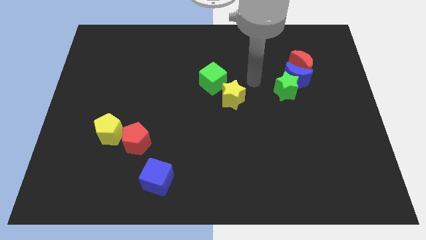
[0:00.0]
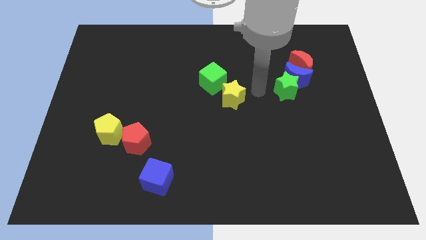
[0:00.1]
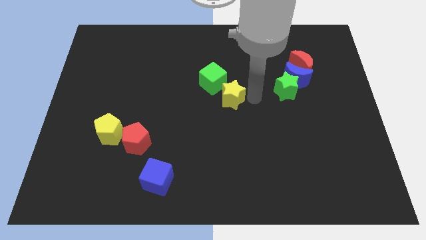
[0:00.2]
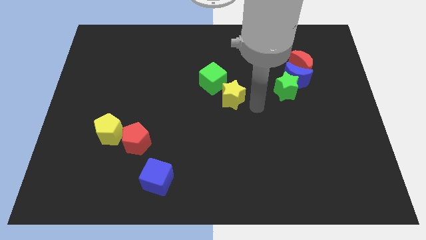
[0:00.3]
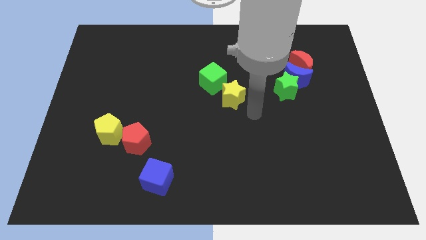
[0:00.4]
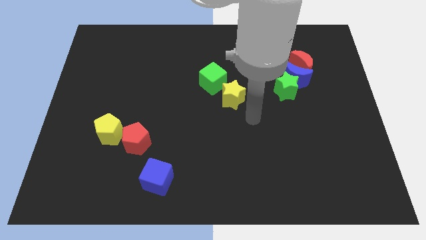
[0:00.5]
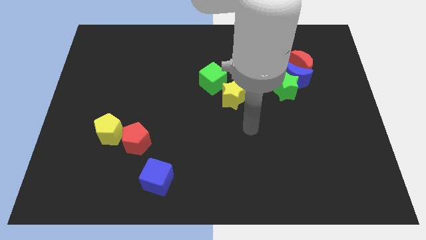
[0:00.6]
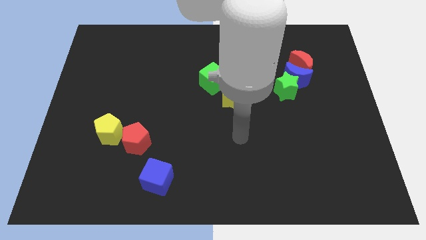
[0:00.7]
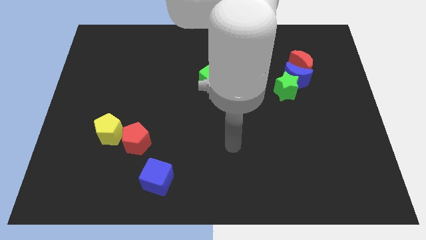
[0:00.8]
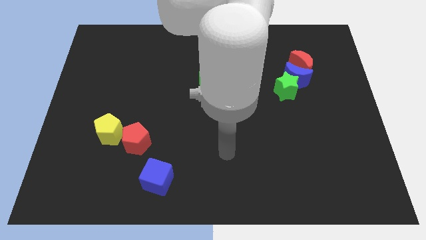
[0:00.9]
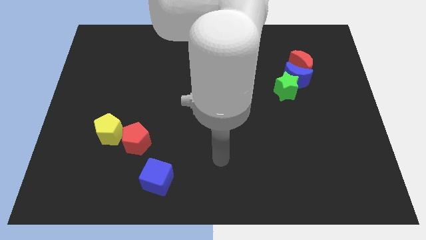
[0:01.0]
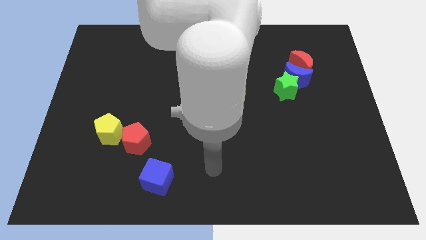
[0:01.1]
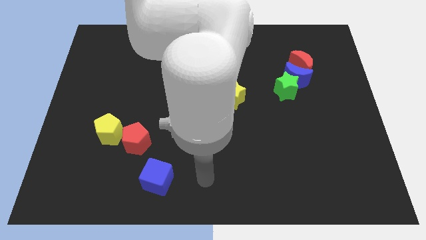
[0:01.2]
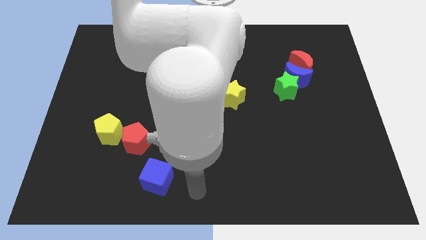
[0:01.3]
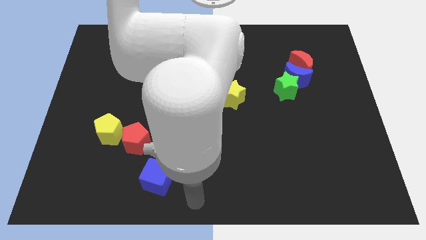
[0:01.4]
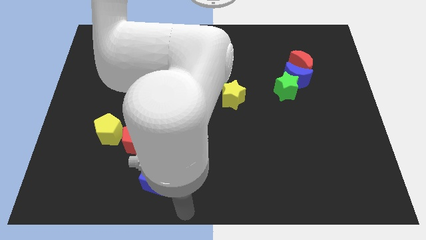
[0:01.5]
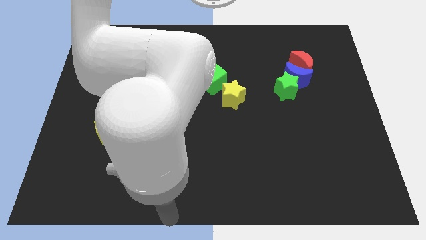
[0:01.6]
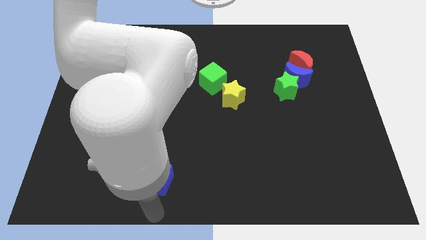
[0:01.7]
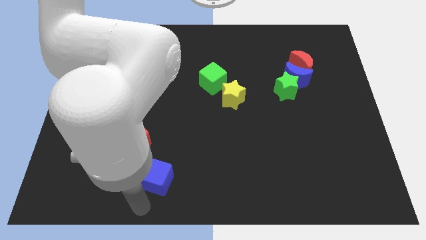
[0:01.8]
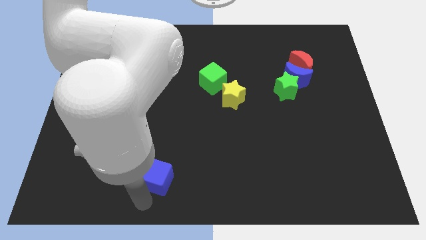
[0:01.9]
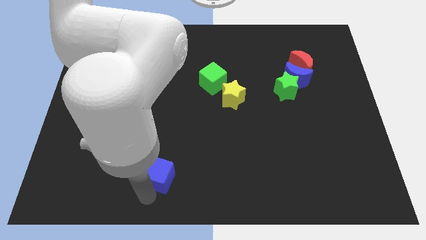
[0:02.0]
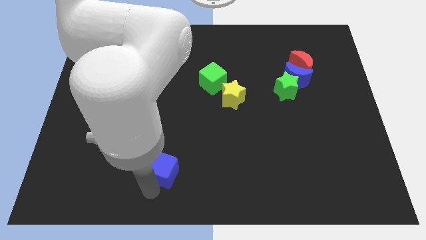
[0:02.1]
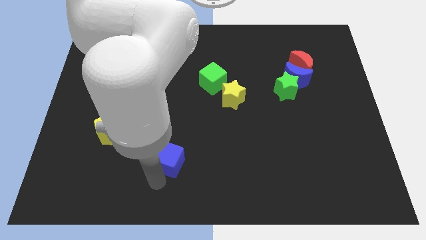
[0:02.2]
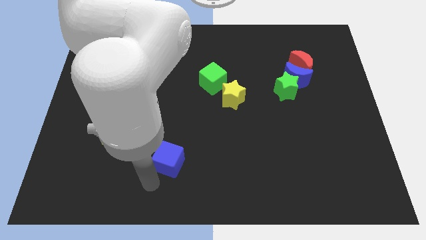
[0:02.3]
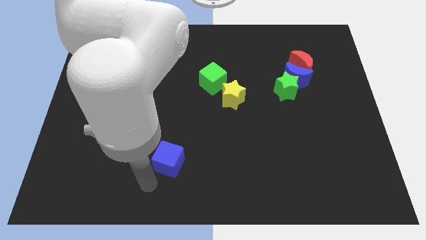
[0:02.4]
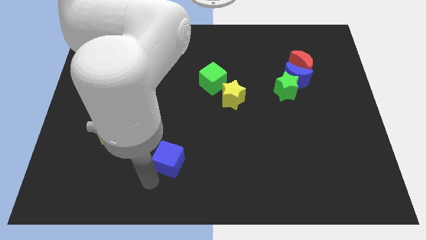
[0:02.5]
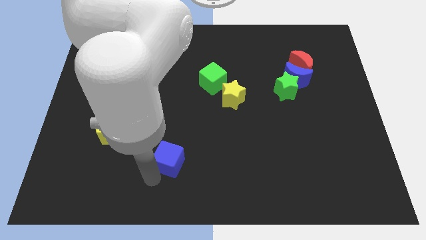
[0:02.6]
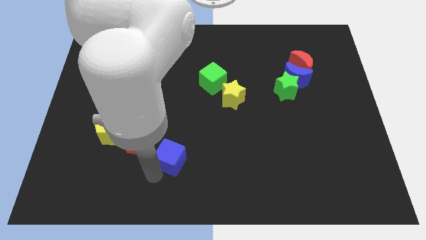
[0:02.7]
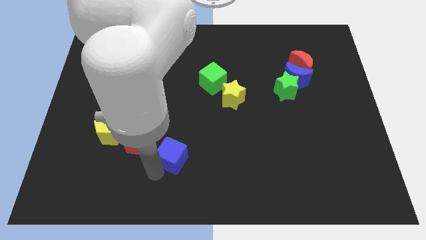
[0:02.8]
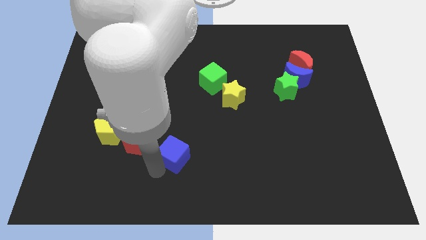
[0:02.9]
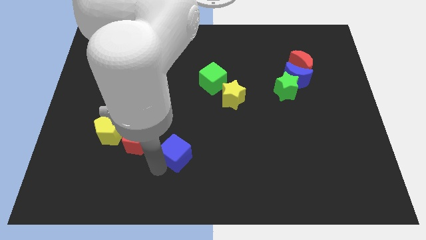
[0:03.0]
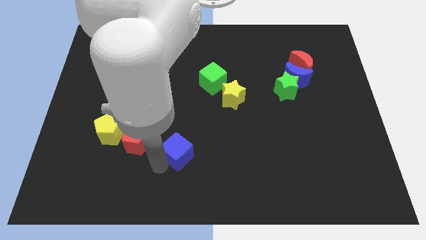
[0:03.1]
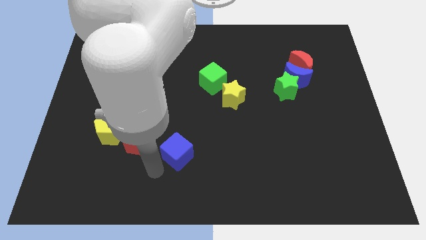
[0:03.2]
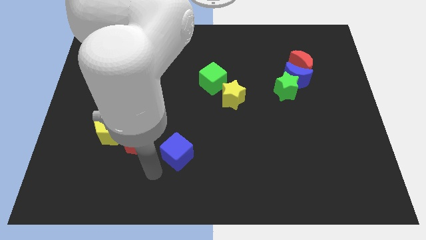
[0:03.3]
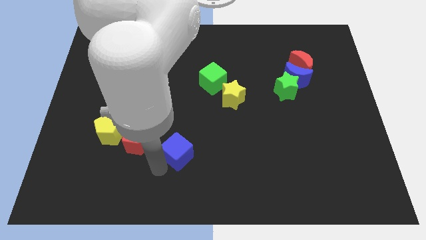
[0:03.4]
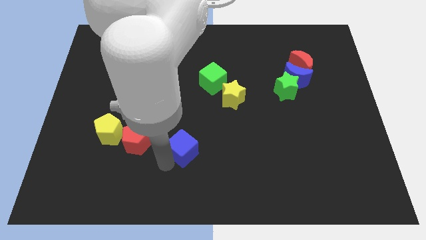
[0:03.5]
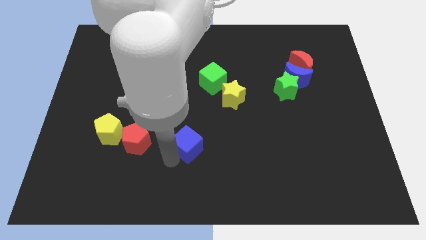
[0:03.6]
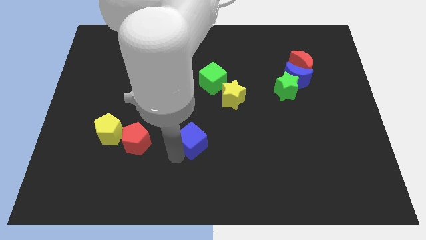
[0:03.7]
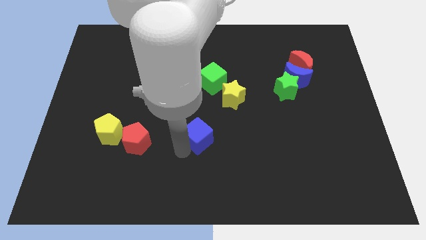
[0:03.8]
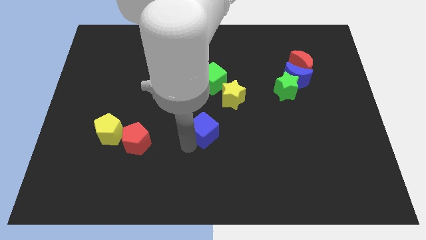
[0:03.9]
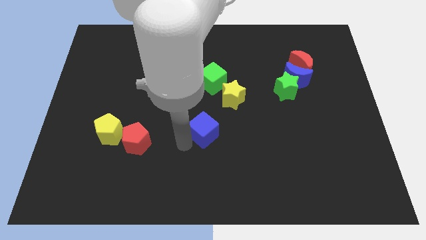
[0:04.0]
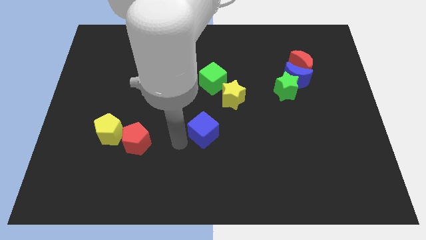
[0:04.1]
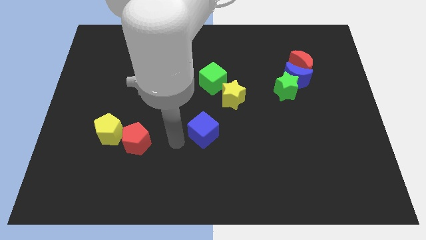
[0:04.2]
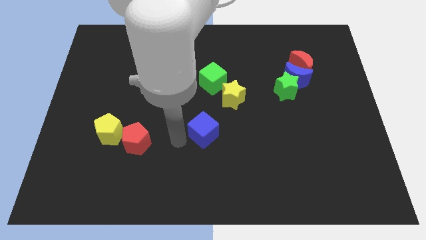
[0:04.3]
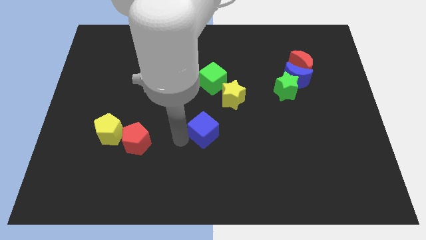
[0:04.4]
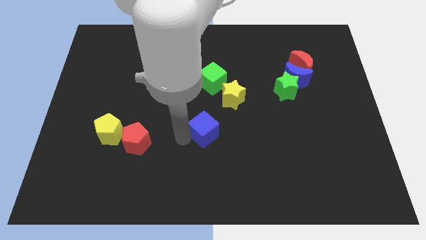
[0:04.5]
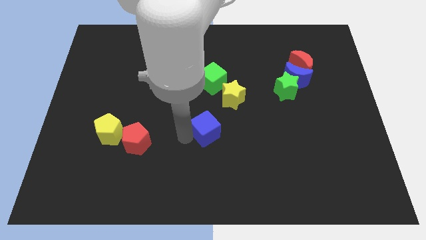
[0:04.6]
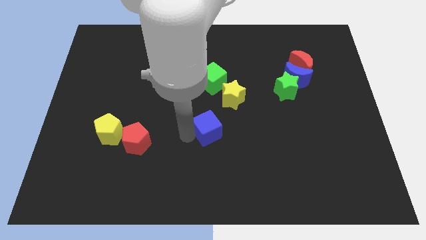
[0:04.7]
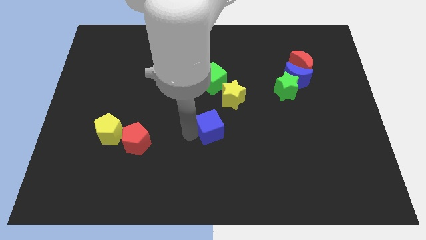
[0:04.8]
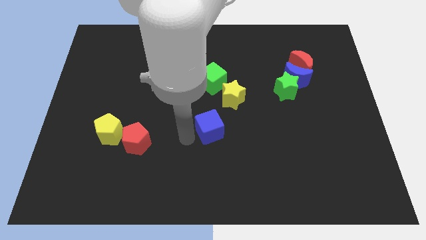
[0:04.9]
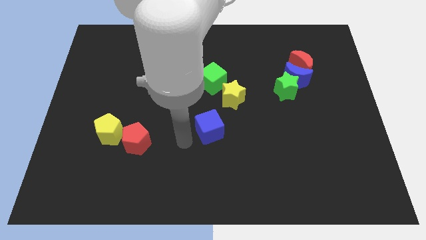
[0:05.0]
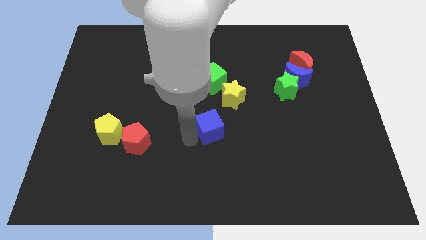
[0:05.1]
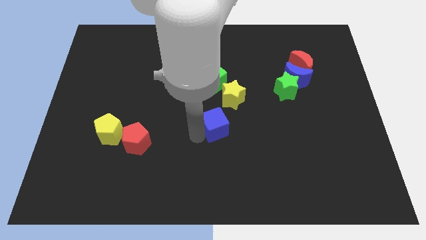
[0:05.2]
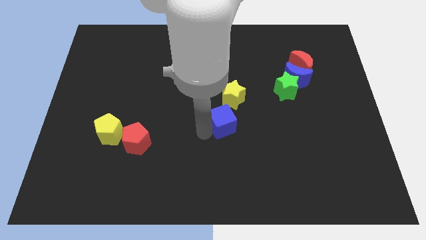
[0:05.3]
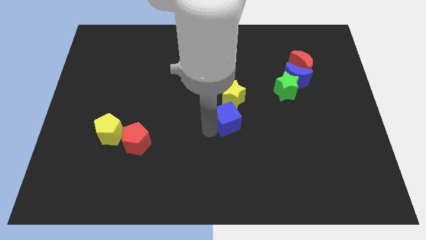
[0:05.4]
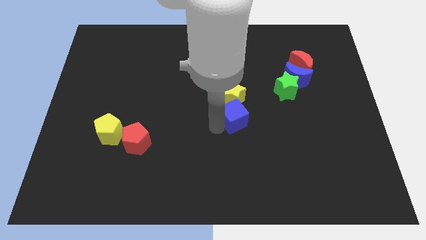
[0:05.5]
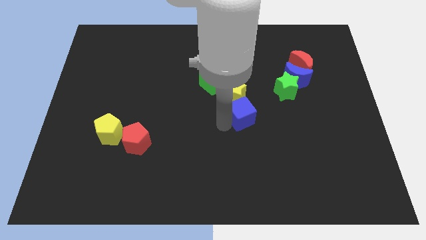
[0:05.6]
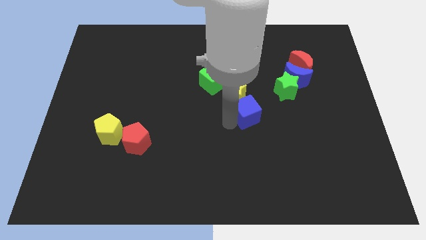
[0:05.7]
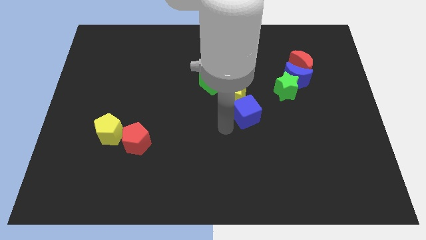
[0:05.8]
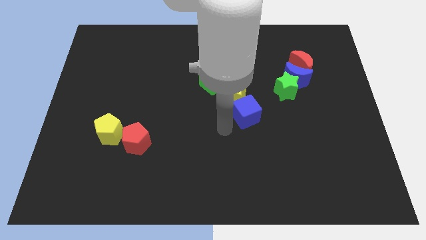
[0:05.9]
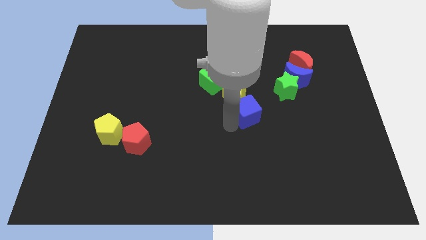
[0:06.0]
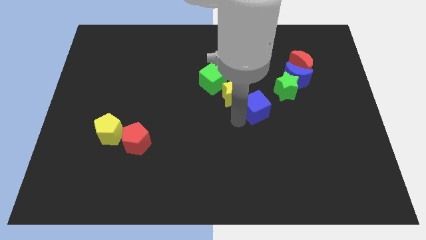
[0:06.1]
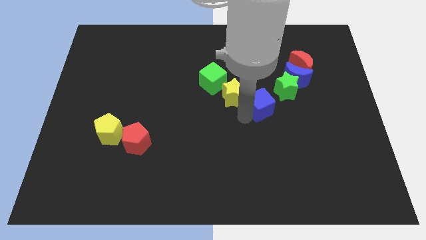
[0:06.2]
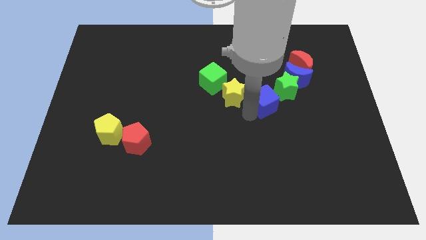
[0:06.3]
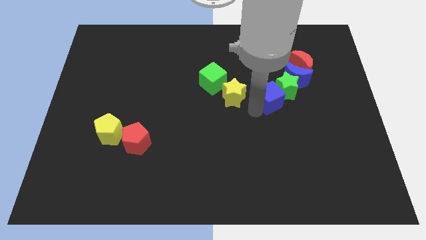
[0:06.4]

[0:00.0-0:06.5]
move the blue cube to the green star

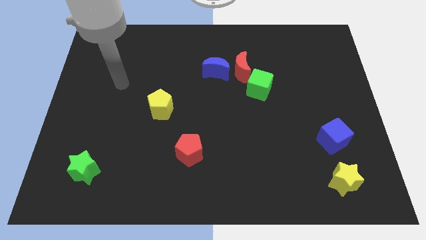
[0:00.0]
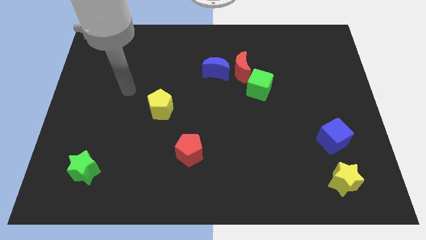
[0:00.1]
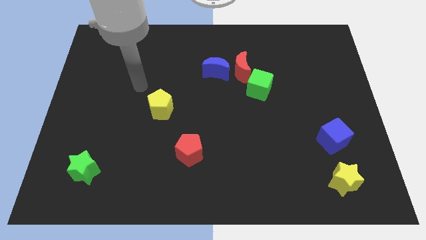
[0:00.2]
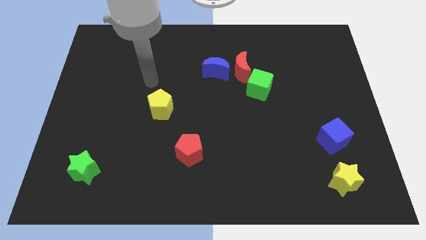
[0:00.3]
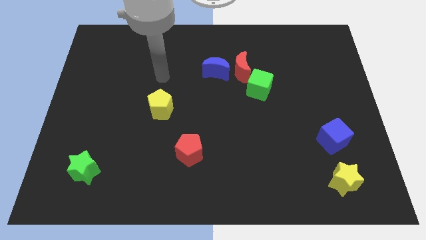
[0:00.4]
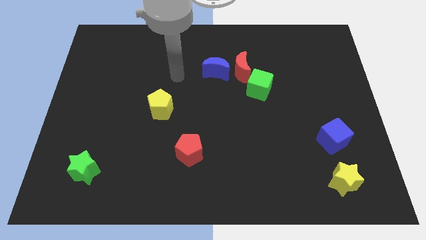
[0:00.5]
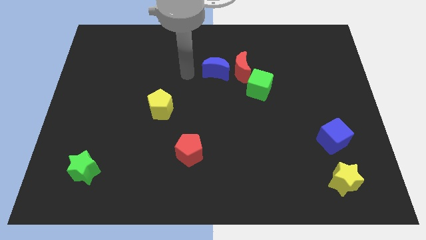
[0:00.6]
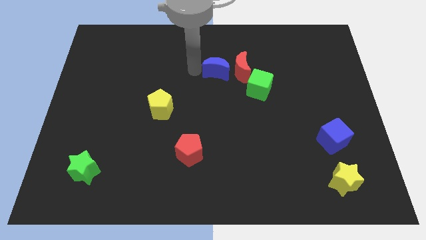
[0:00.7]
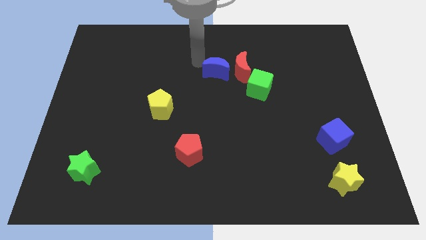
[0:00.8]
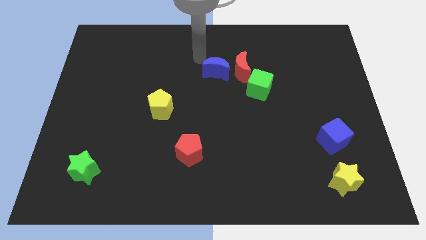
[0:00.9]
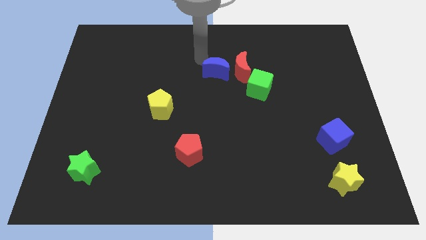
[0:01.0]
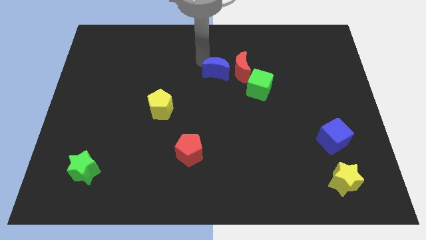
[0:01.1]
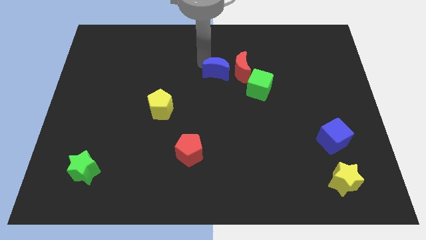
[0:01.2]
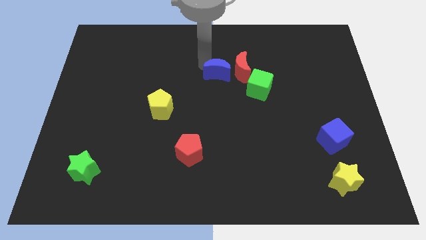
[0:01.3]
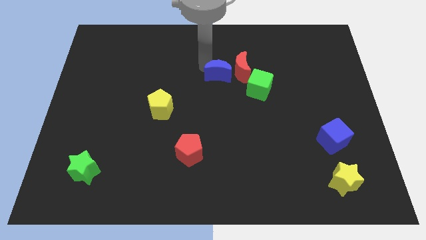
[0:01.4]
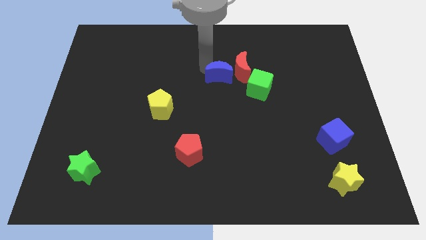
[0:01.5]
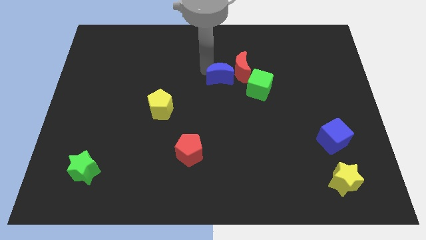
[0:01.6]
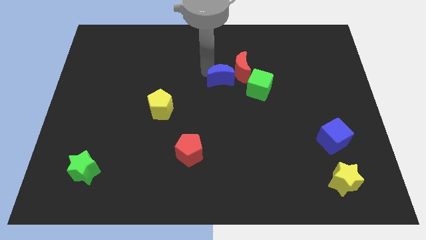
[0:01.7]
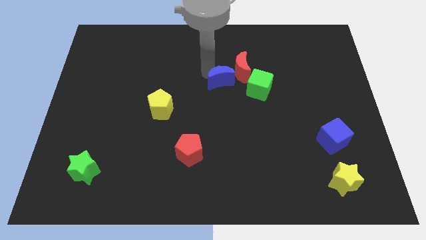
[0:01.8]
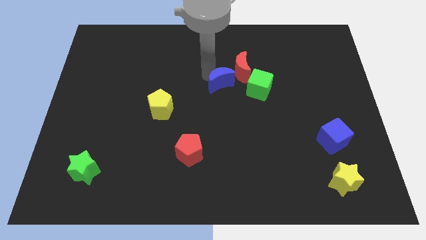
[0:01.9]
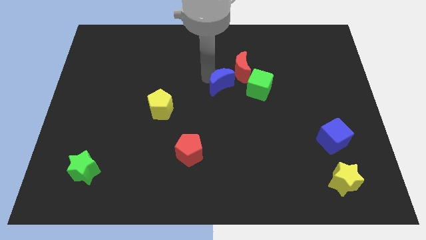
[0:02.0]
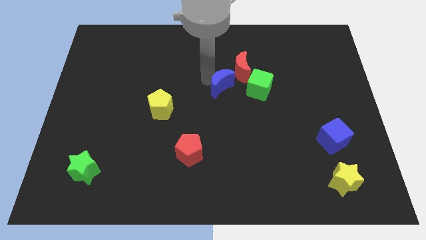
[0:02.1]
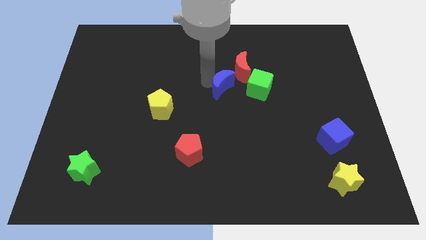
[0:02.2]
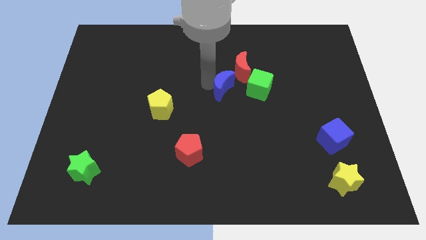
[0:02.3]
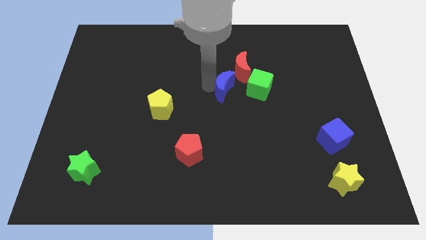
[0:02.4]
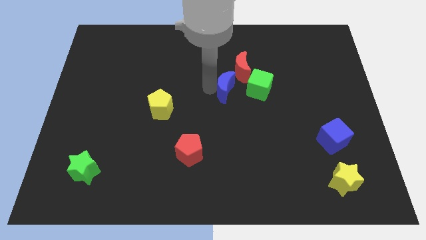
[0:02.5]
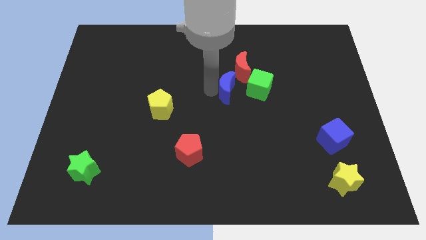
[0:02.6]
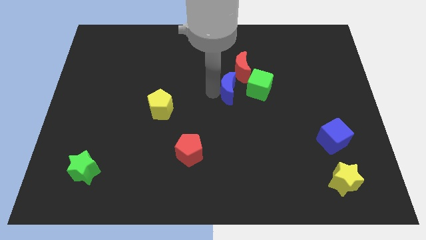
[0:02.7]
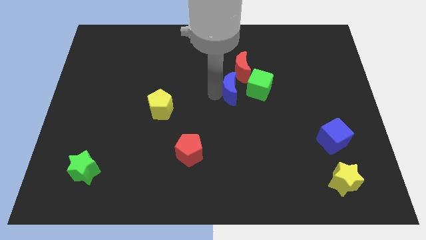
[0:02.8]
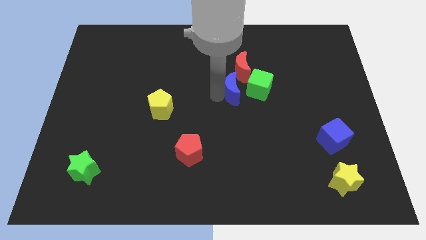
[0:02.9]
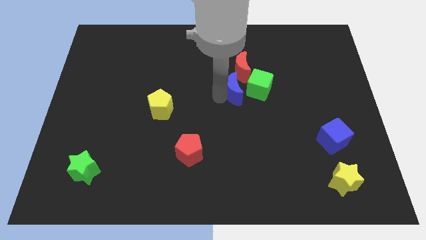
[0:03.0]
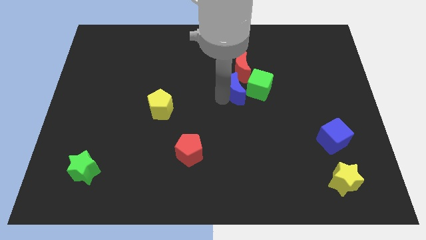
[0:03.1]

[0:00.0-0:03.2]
move the blue moon towards the green cube
